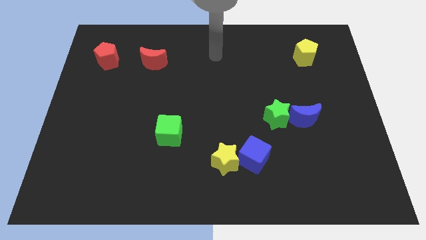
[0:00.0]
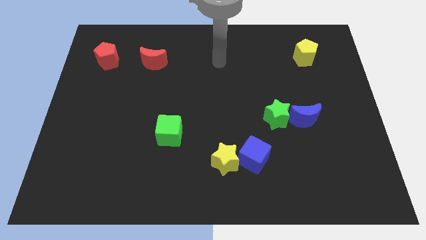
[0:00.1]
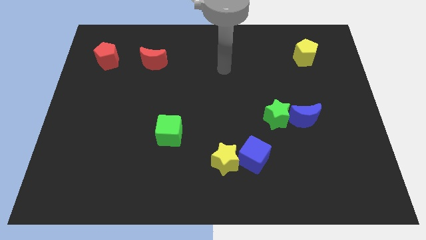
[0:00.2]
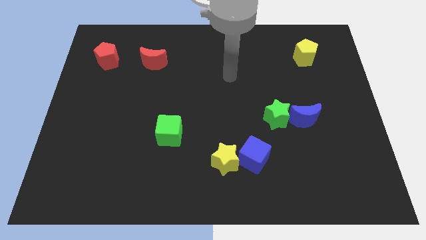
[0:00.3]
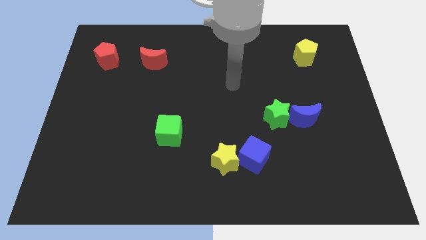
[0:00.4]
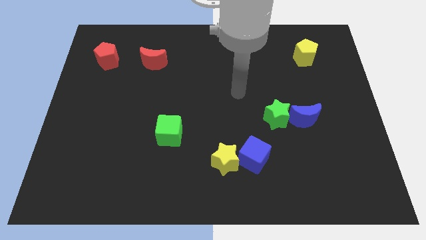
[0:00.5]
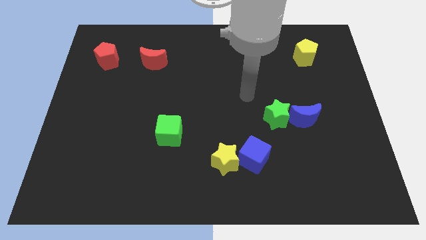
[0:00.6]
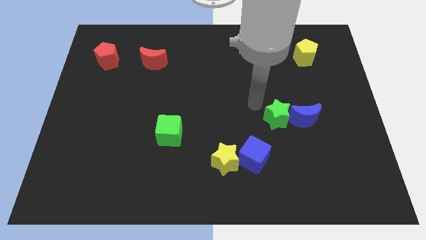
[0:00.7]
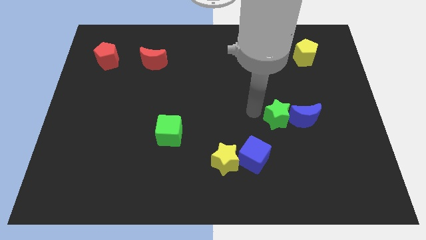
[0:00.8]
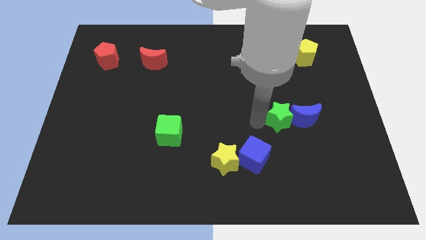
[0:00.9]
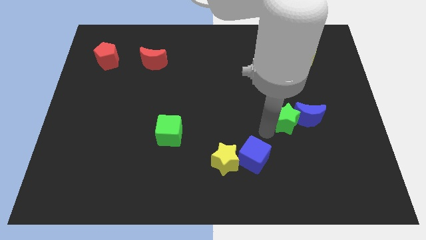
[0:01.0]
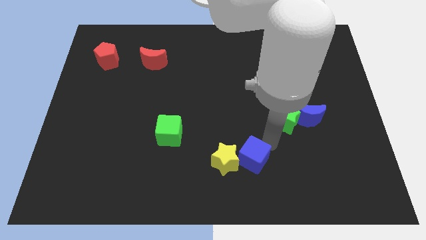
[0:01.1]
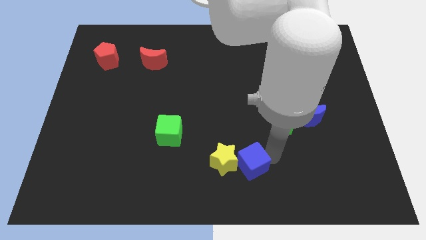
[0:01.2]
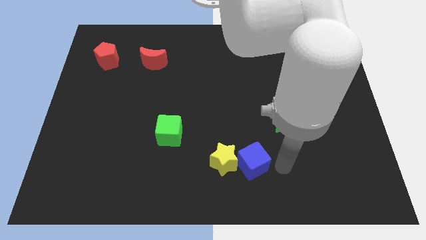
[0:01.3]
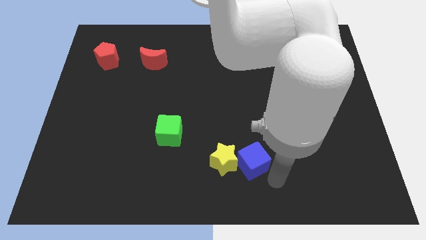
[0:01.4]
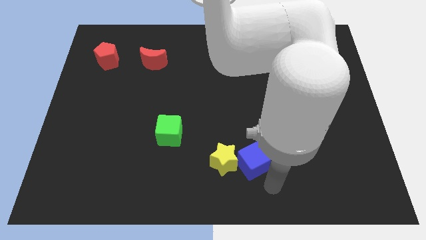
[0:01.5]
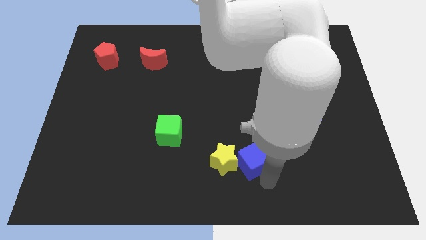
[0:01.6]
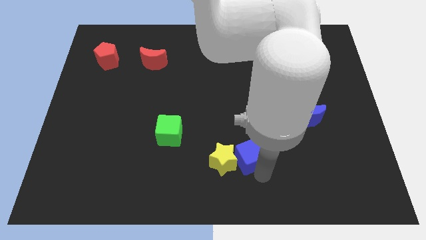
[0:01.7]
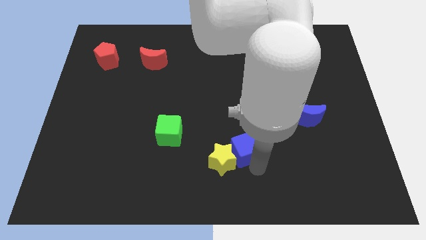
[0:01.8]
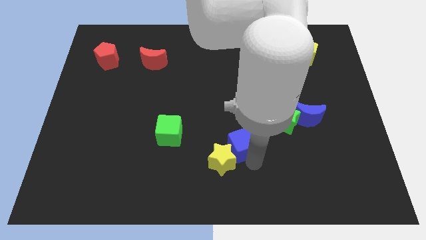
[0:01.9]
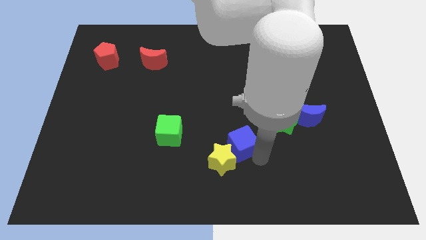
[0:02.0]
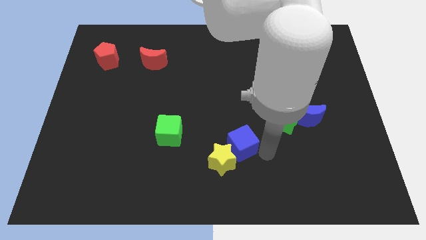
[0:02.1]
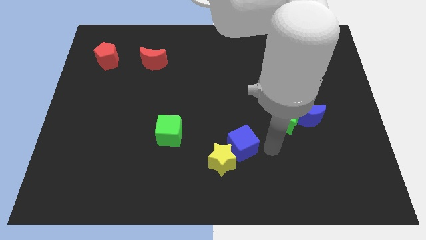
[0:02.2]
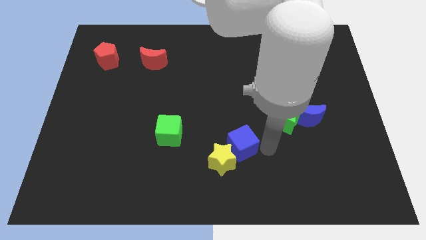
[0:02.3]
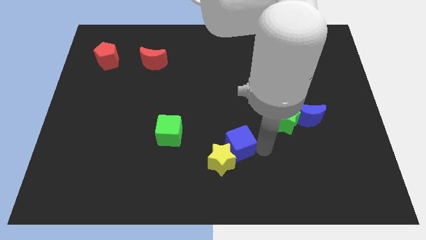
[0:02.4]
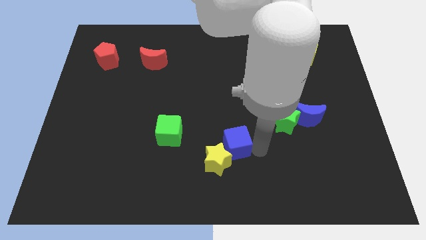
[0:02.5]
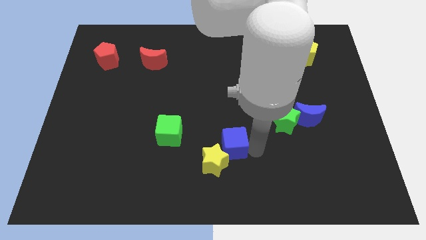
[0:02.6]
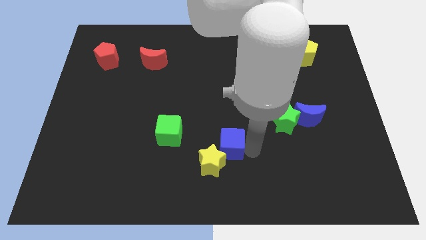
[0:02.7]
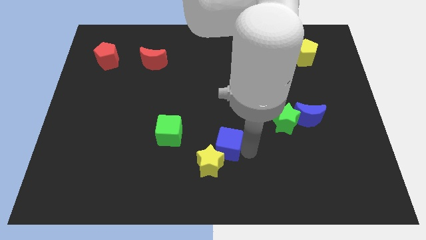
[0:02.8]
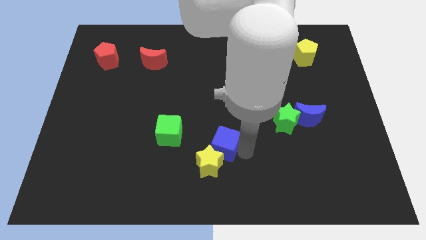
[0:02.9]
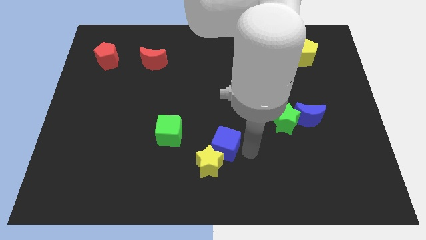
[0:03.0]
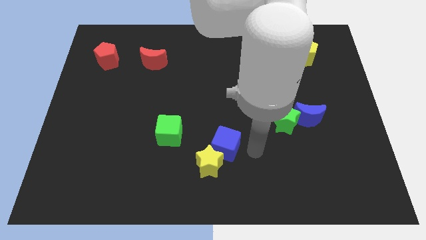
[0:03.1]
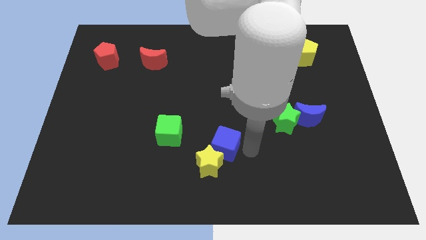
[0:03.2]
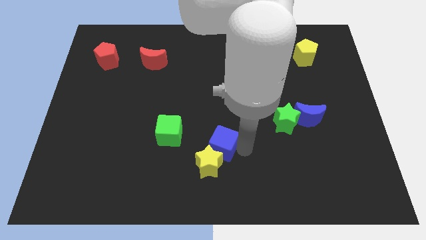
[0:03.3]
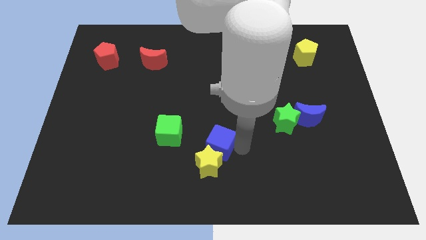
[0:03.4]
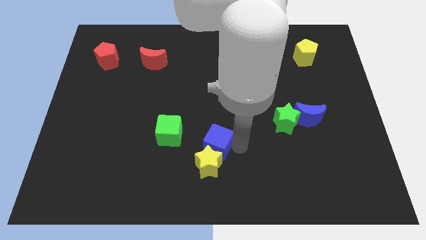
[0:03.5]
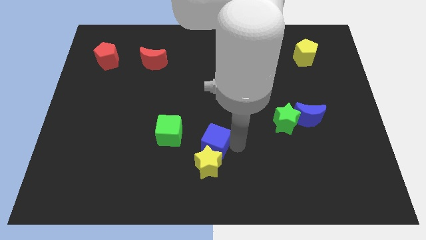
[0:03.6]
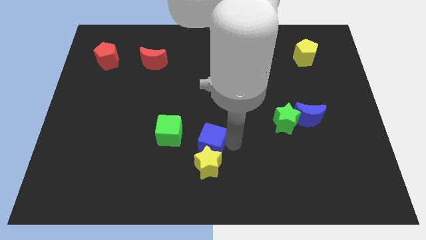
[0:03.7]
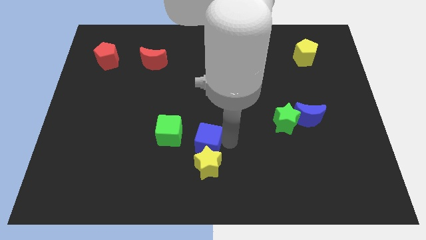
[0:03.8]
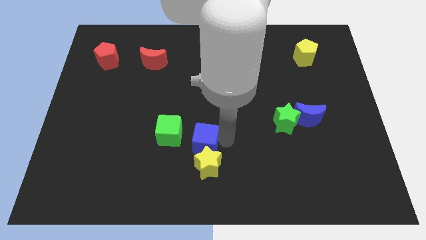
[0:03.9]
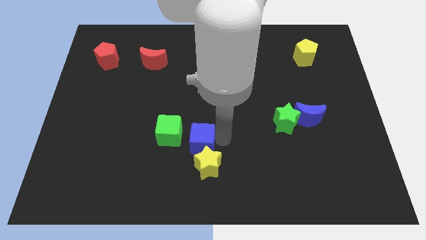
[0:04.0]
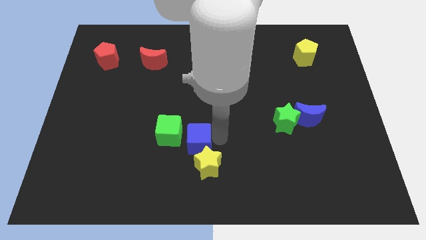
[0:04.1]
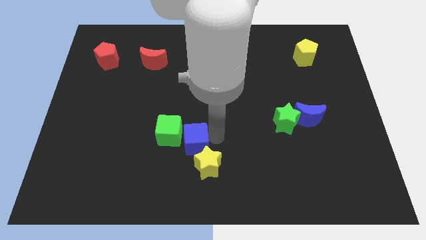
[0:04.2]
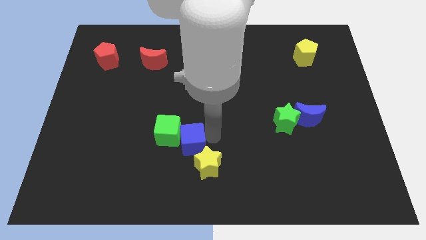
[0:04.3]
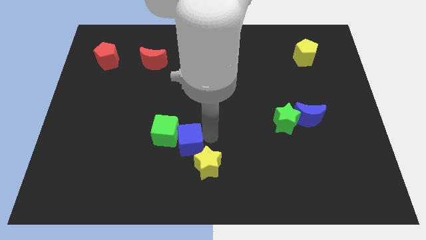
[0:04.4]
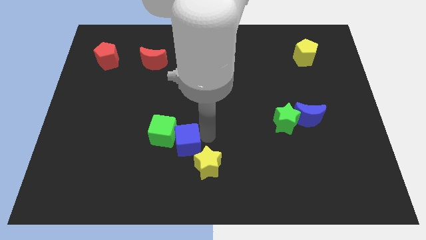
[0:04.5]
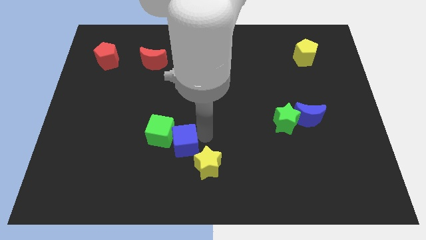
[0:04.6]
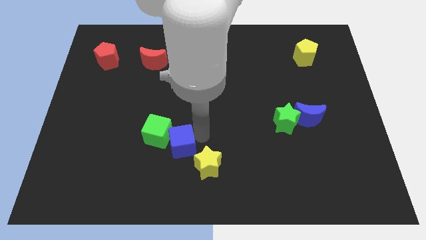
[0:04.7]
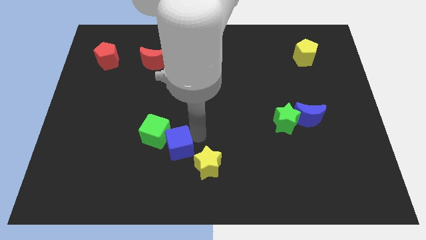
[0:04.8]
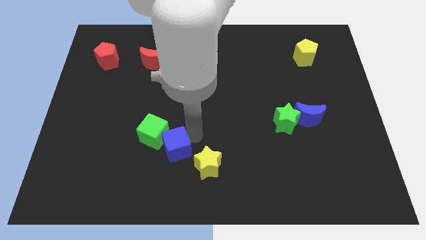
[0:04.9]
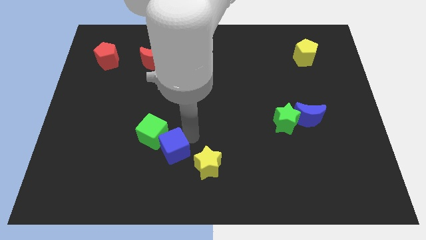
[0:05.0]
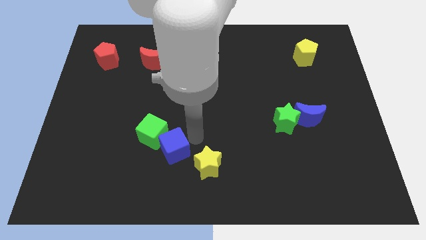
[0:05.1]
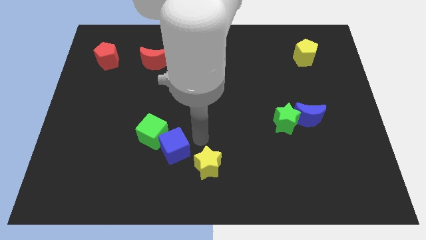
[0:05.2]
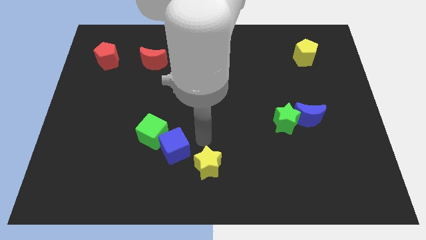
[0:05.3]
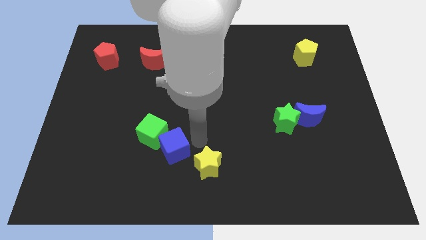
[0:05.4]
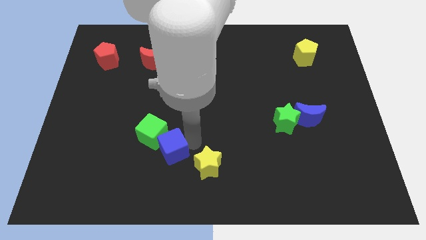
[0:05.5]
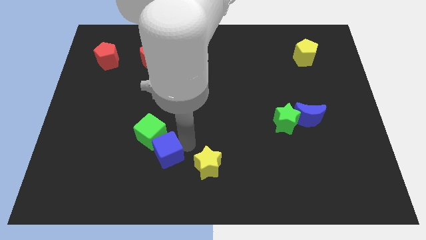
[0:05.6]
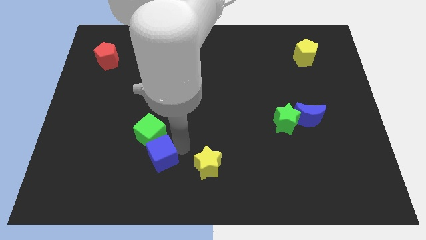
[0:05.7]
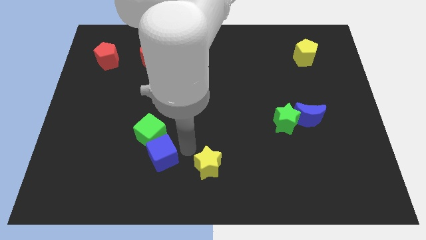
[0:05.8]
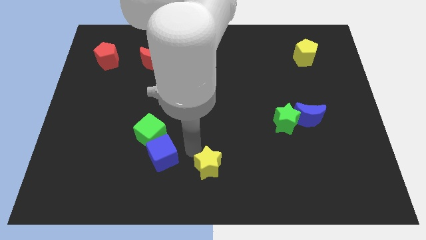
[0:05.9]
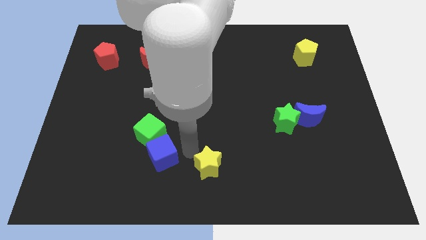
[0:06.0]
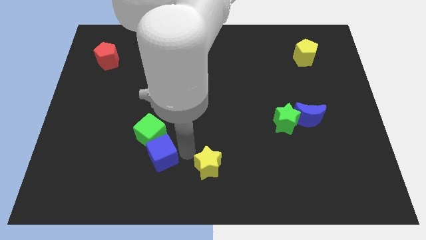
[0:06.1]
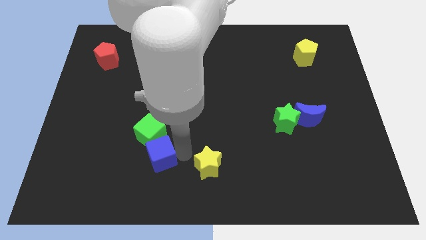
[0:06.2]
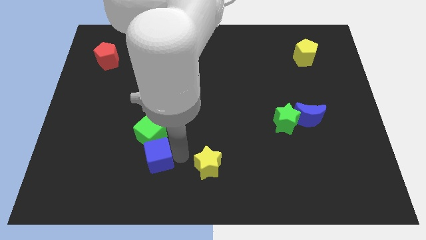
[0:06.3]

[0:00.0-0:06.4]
move the blue cube left

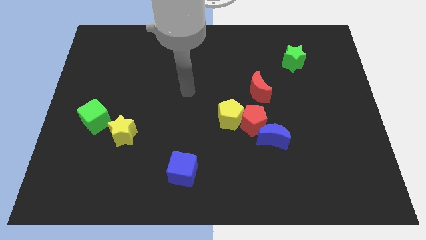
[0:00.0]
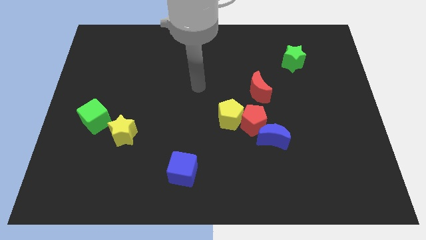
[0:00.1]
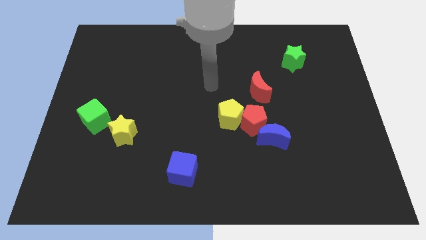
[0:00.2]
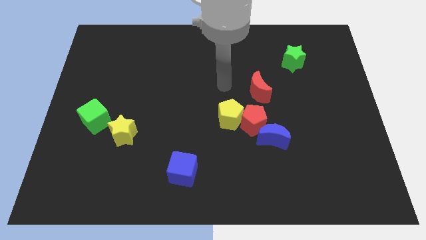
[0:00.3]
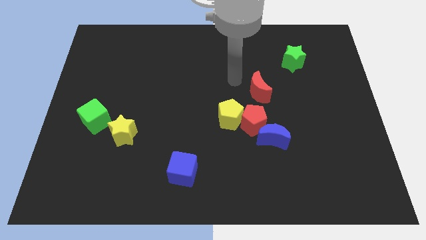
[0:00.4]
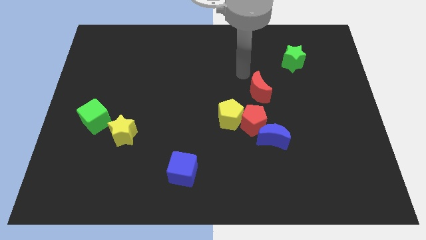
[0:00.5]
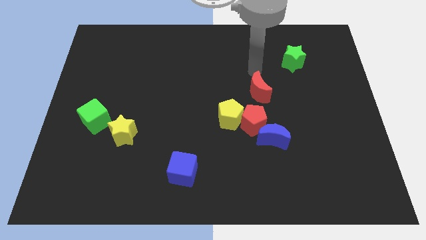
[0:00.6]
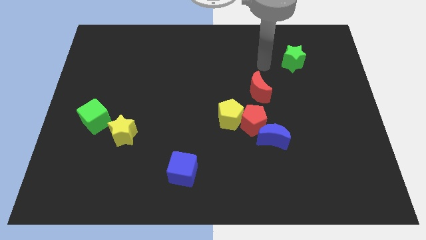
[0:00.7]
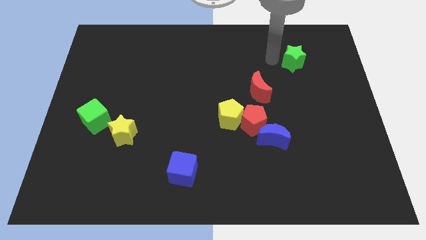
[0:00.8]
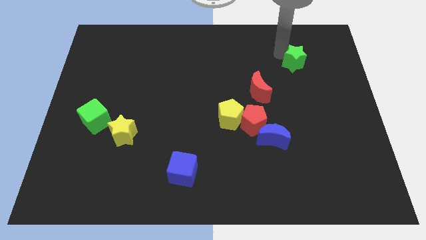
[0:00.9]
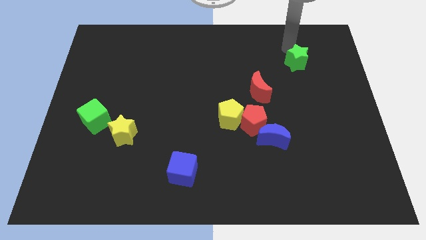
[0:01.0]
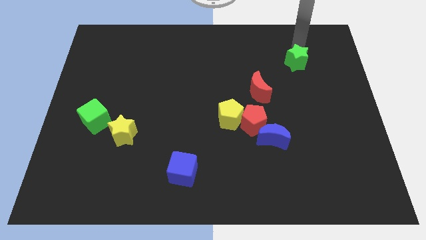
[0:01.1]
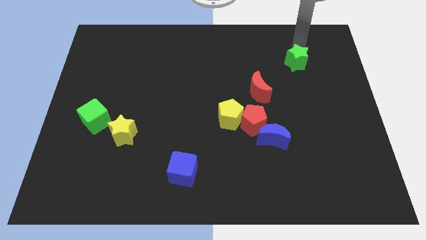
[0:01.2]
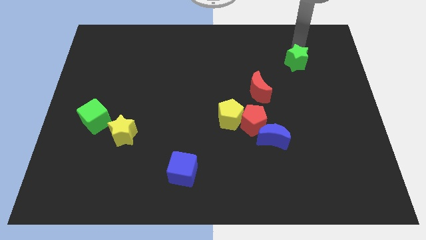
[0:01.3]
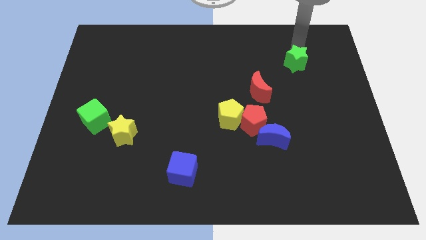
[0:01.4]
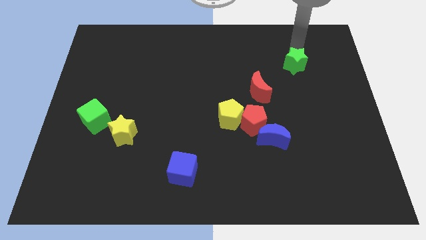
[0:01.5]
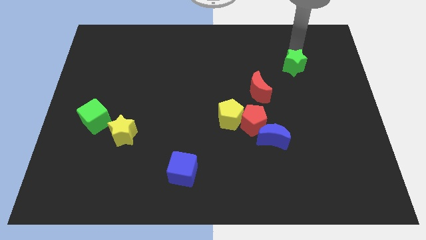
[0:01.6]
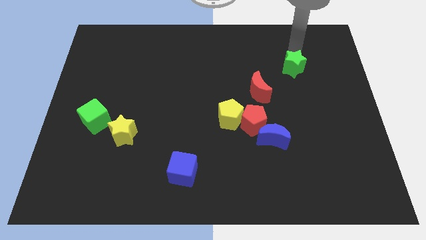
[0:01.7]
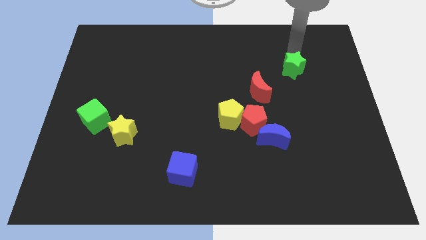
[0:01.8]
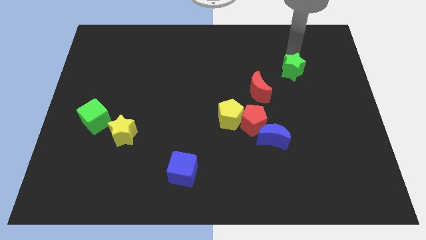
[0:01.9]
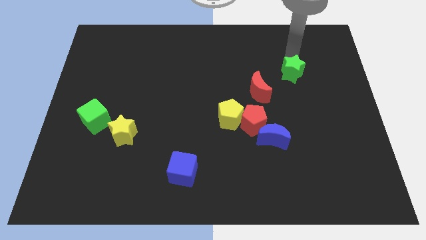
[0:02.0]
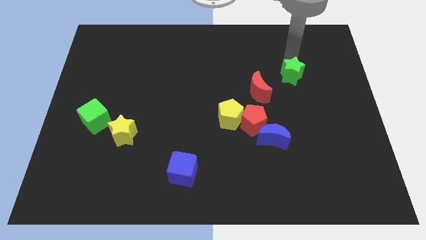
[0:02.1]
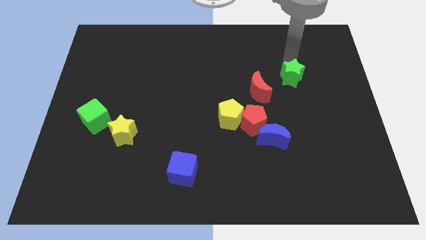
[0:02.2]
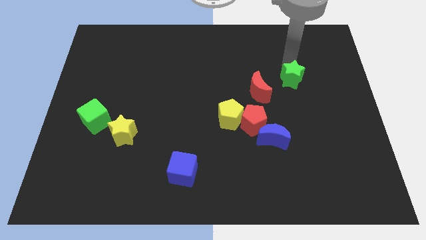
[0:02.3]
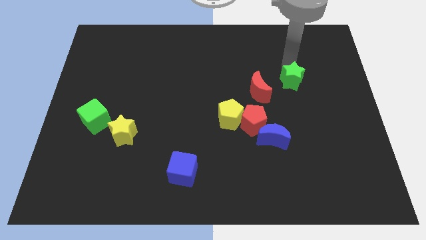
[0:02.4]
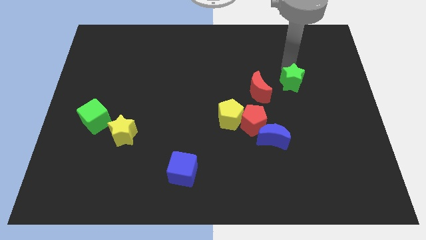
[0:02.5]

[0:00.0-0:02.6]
slightly slide the green star downwards
